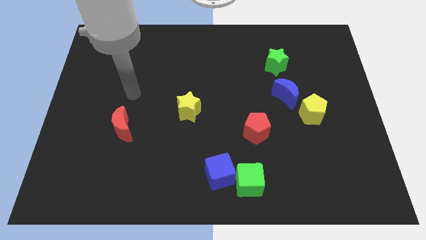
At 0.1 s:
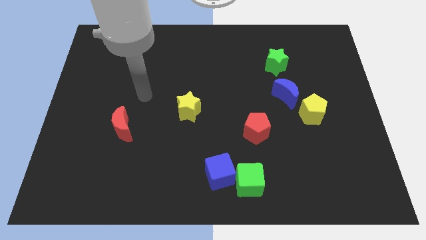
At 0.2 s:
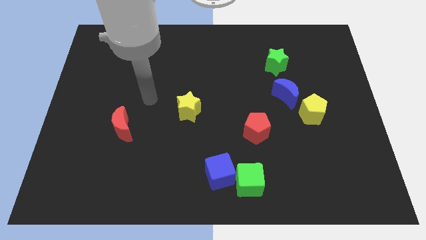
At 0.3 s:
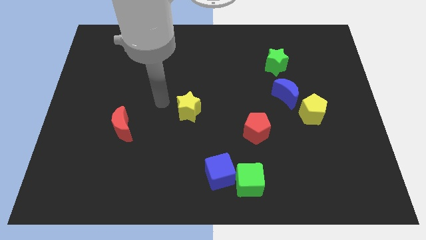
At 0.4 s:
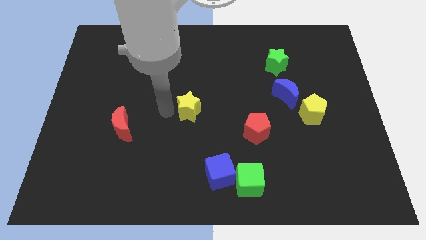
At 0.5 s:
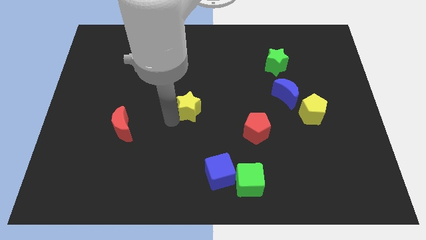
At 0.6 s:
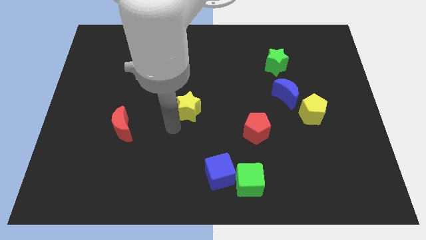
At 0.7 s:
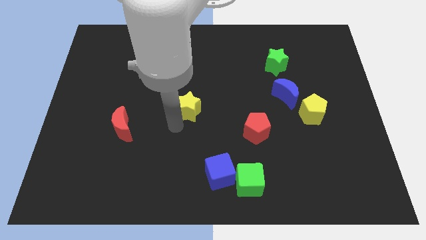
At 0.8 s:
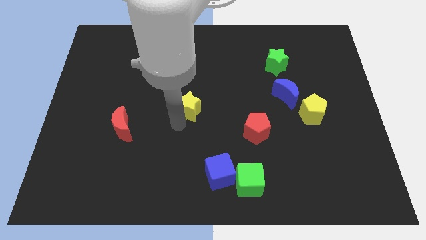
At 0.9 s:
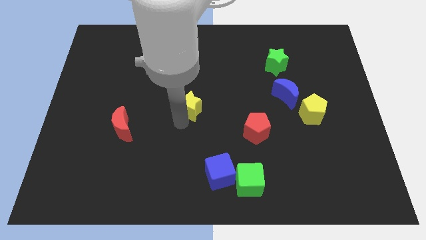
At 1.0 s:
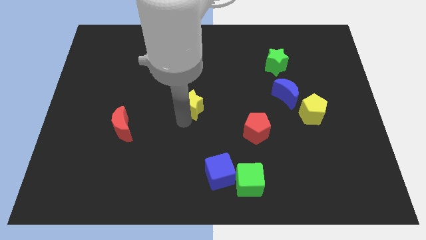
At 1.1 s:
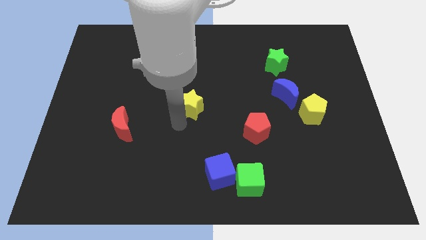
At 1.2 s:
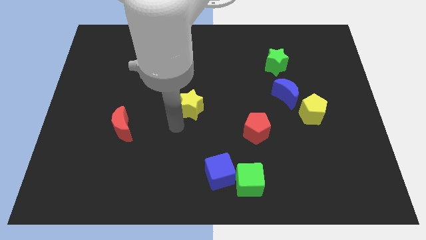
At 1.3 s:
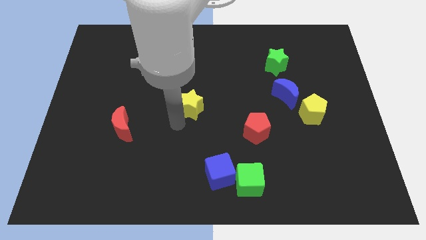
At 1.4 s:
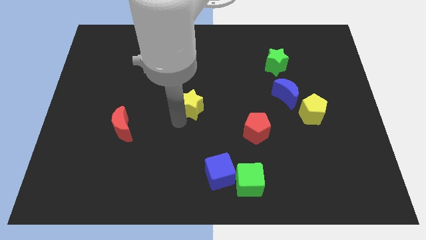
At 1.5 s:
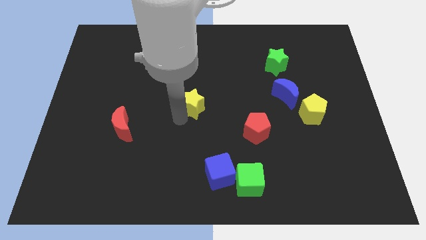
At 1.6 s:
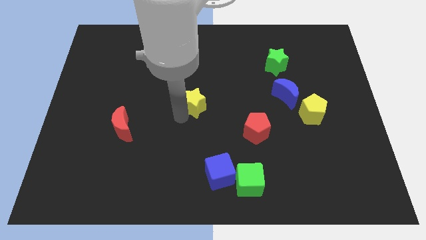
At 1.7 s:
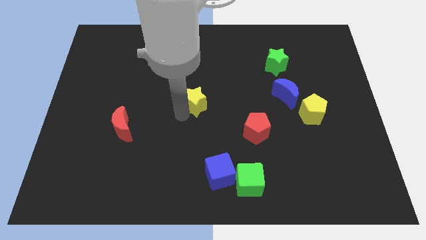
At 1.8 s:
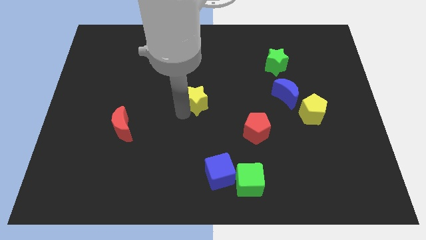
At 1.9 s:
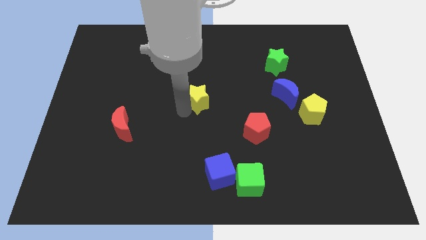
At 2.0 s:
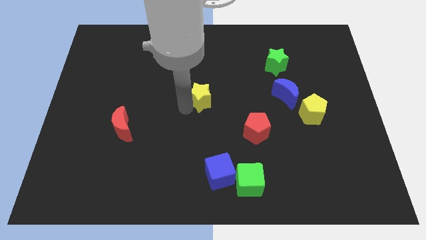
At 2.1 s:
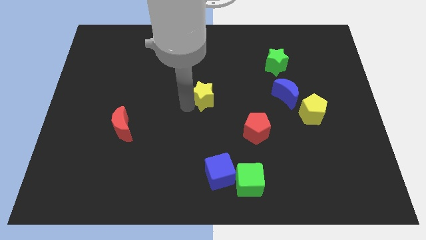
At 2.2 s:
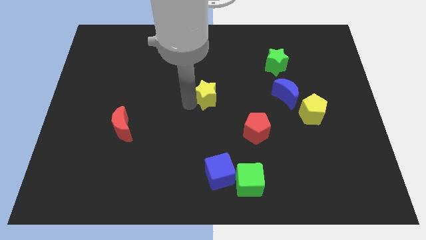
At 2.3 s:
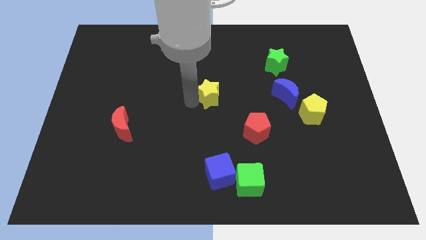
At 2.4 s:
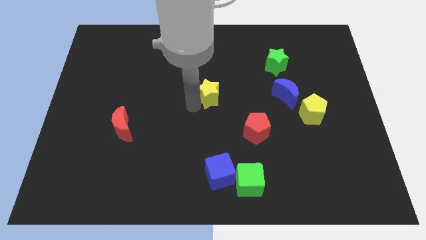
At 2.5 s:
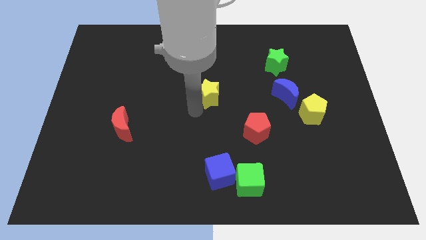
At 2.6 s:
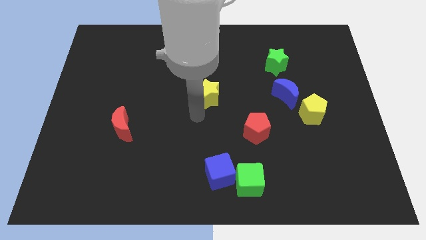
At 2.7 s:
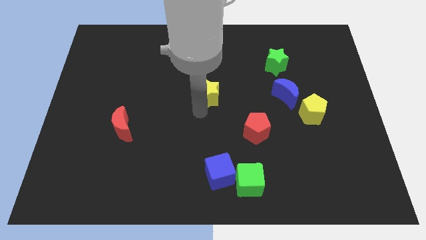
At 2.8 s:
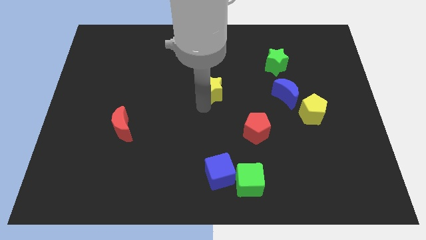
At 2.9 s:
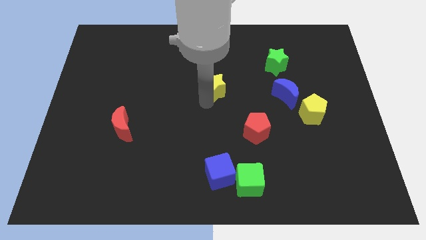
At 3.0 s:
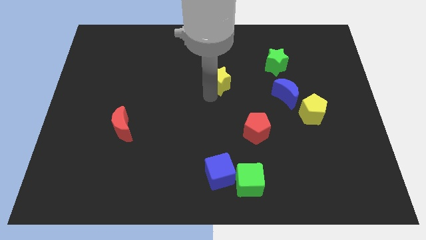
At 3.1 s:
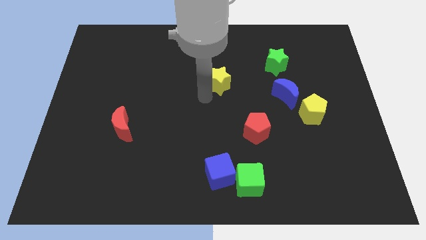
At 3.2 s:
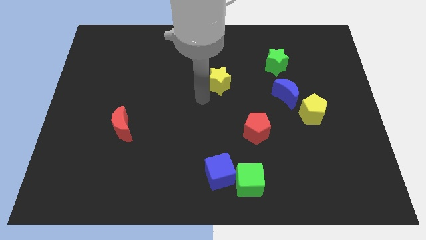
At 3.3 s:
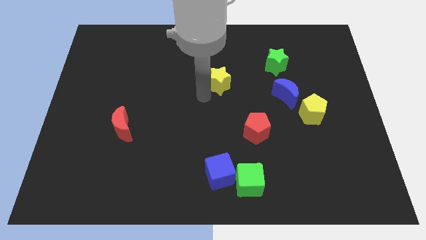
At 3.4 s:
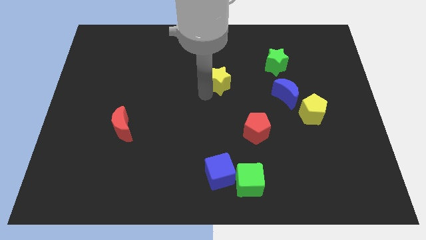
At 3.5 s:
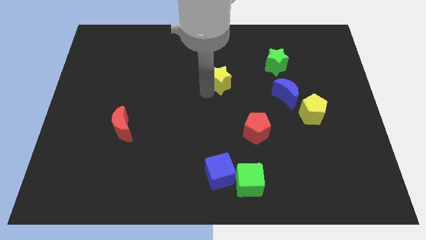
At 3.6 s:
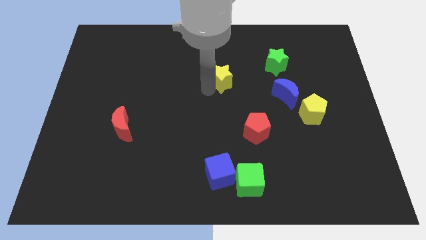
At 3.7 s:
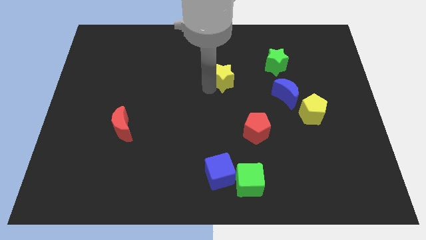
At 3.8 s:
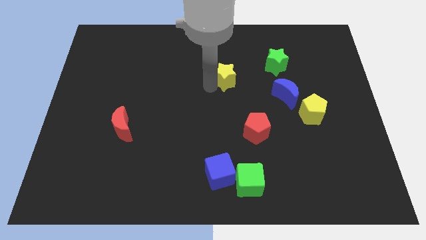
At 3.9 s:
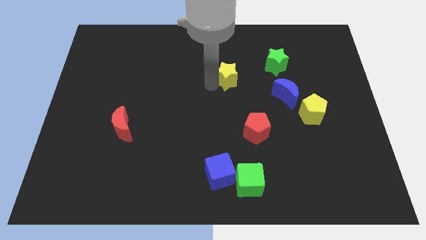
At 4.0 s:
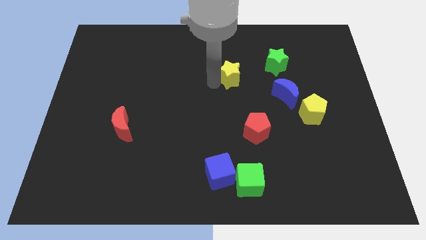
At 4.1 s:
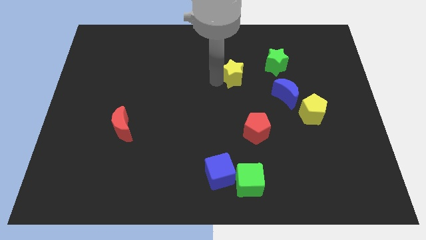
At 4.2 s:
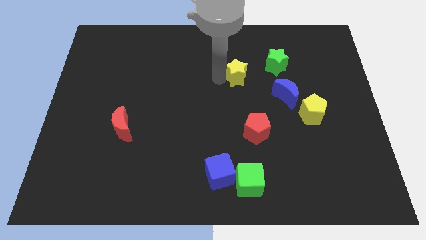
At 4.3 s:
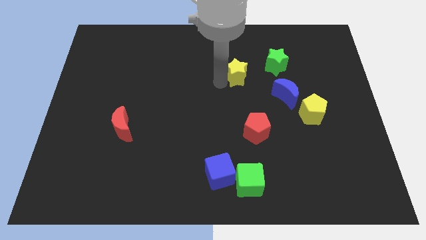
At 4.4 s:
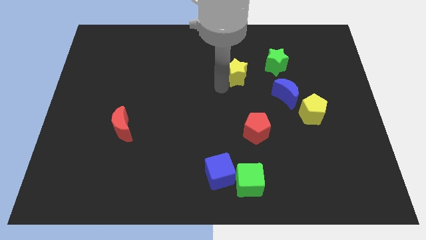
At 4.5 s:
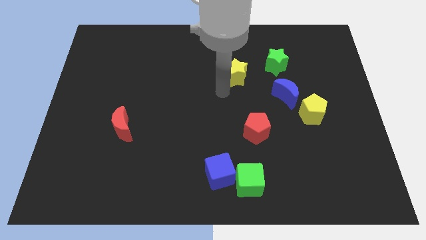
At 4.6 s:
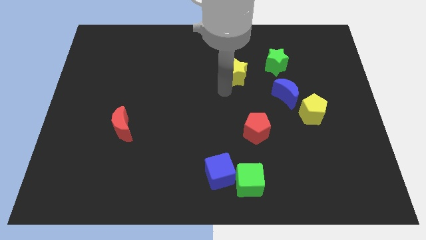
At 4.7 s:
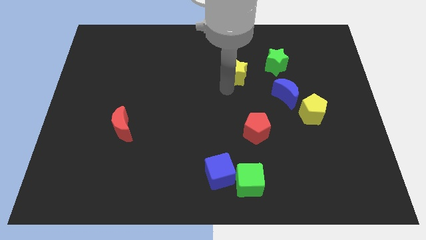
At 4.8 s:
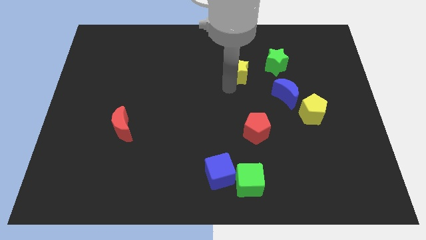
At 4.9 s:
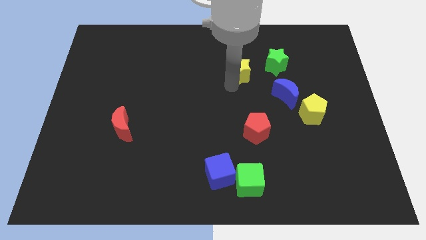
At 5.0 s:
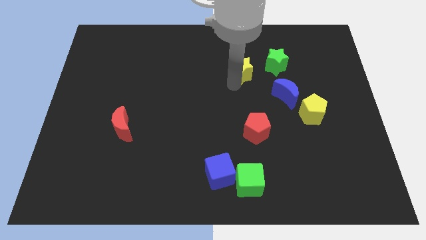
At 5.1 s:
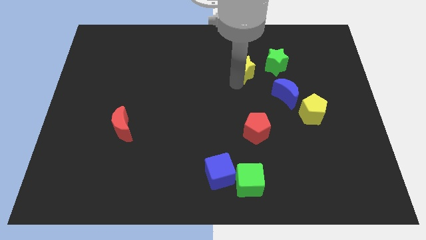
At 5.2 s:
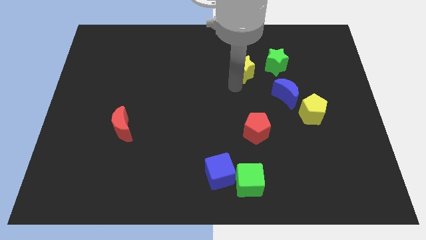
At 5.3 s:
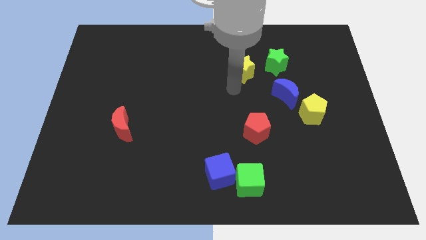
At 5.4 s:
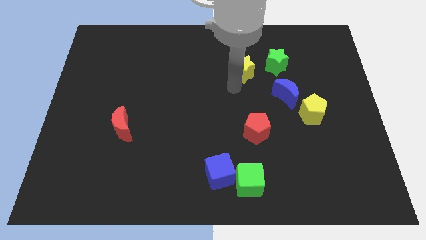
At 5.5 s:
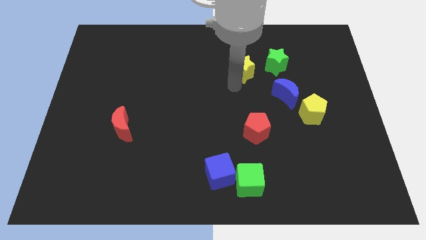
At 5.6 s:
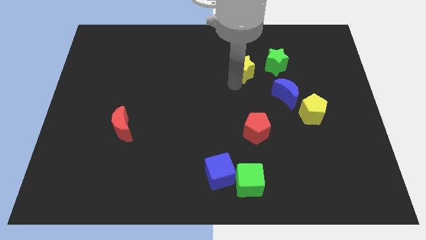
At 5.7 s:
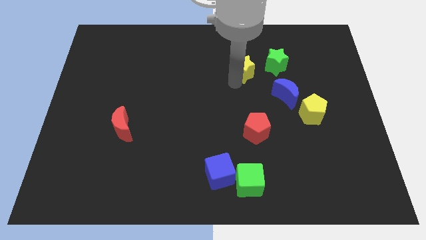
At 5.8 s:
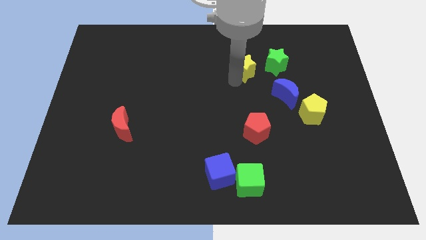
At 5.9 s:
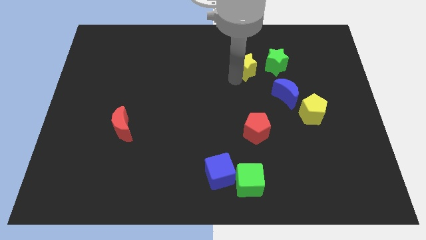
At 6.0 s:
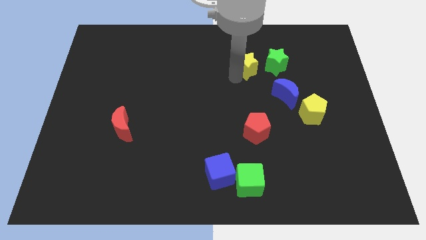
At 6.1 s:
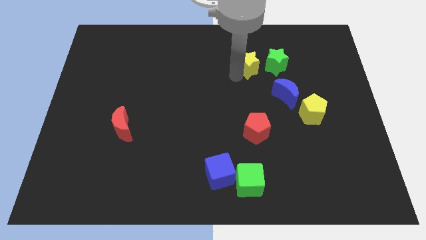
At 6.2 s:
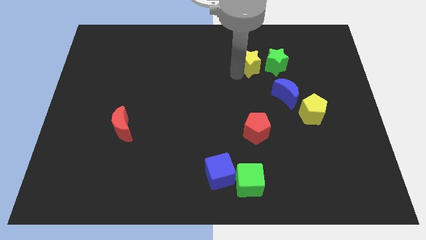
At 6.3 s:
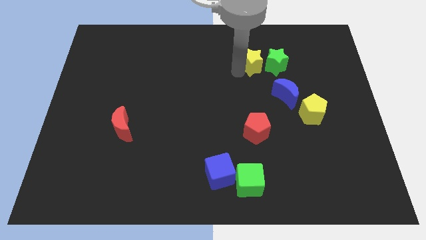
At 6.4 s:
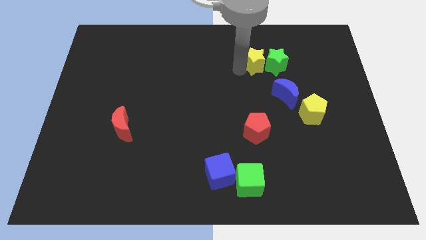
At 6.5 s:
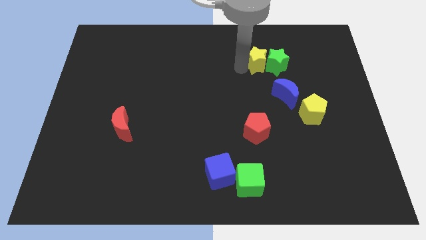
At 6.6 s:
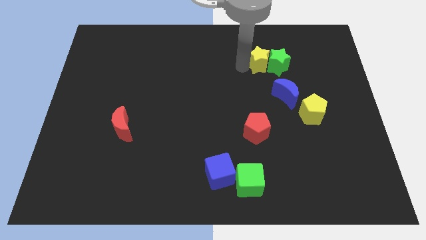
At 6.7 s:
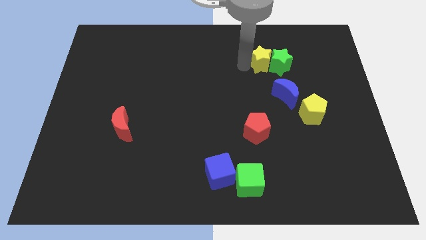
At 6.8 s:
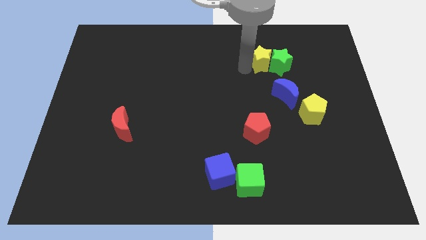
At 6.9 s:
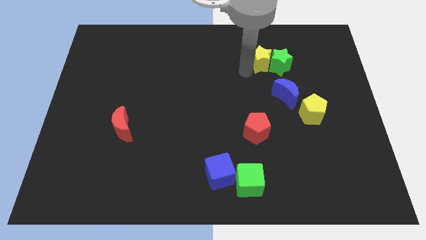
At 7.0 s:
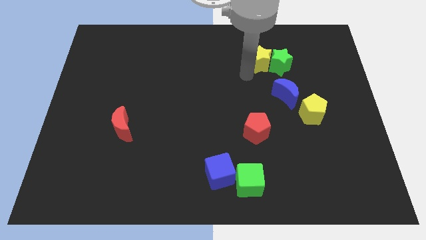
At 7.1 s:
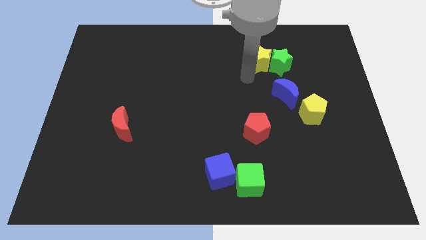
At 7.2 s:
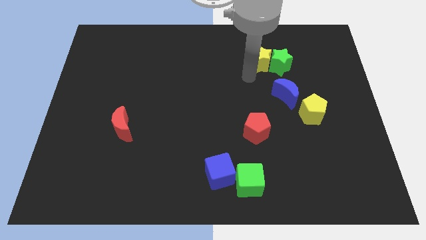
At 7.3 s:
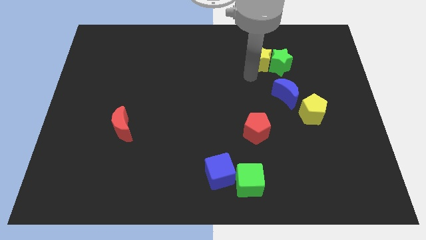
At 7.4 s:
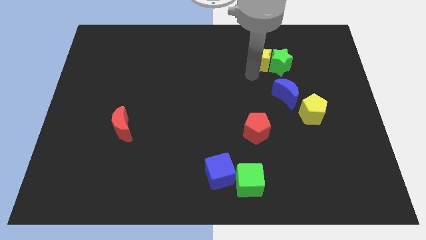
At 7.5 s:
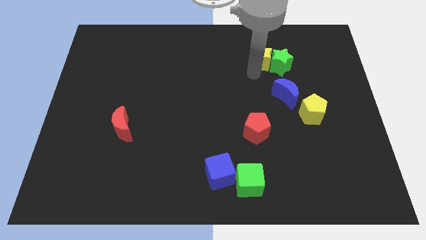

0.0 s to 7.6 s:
slide the yellow star to the top of the blue moon
